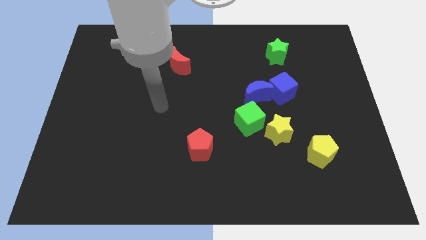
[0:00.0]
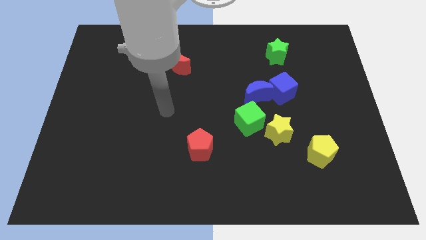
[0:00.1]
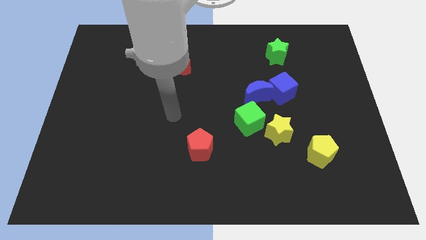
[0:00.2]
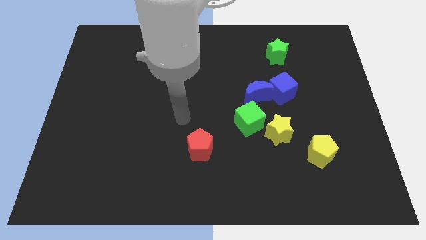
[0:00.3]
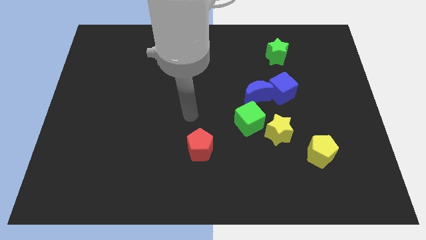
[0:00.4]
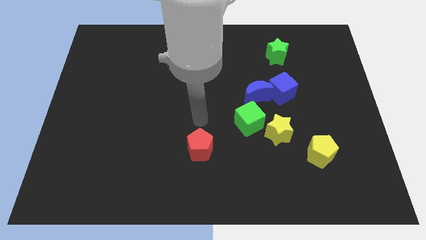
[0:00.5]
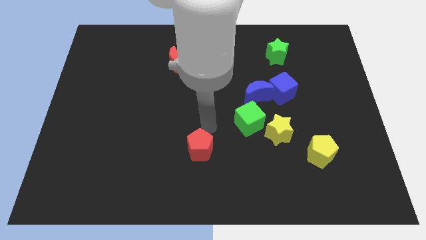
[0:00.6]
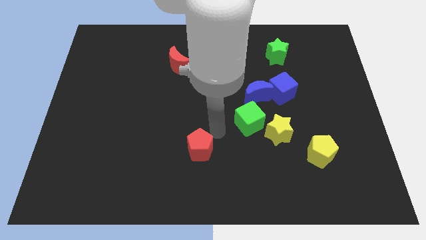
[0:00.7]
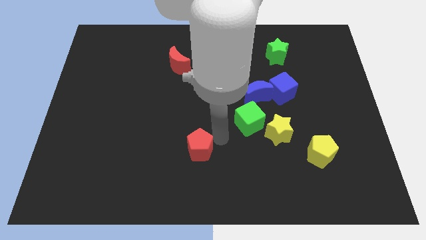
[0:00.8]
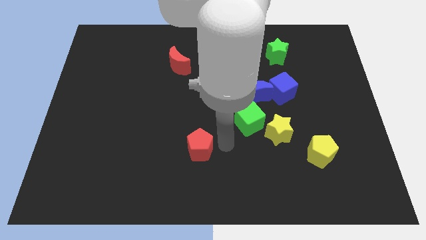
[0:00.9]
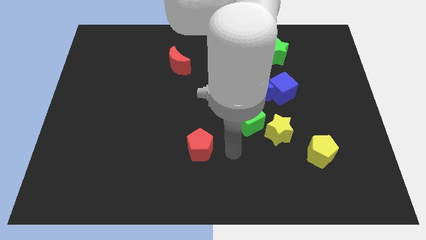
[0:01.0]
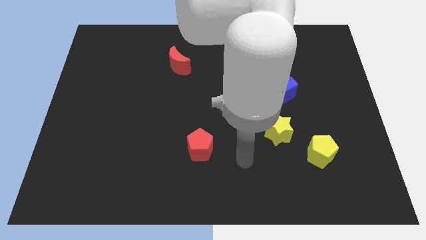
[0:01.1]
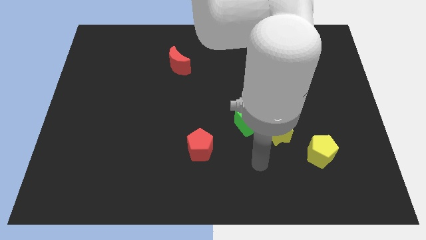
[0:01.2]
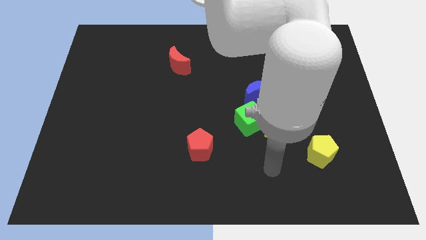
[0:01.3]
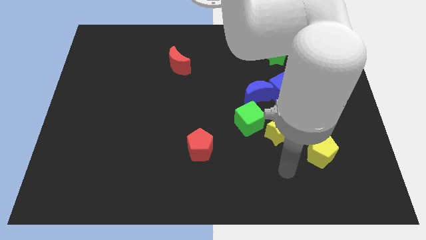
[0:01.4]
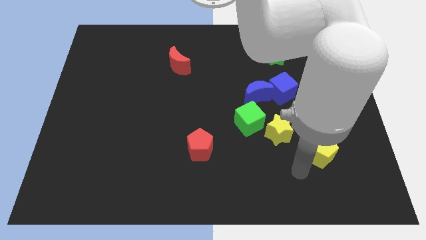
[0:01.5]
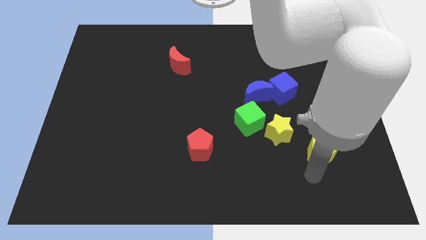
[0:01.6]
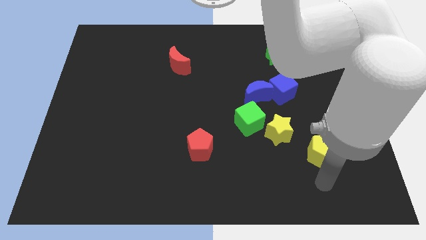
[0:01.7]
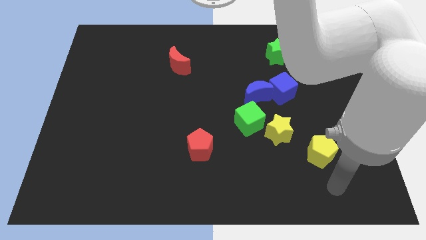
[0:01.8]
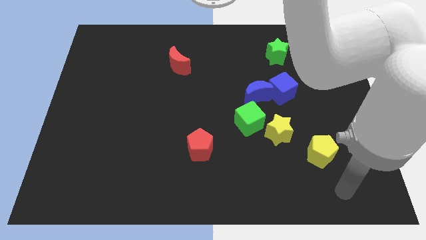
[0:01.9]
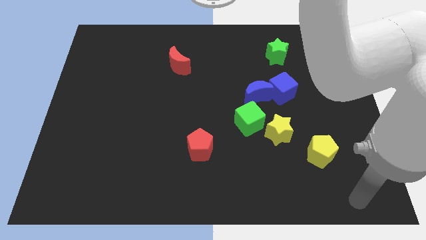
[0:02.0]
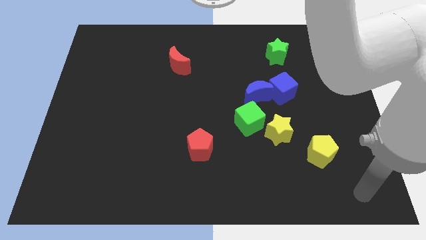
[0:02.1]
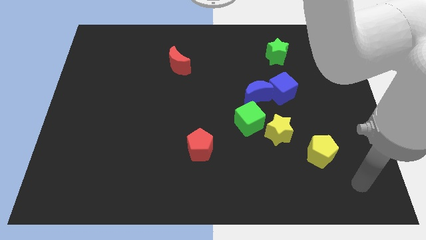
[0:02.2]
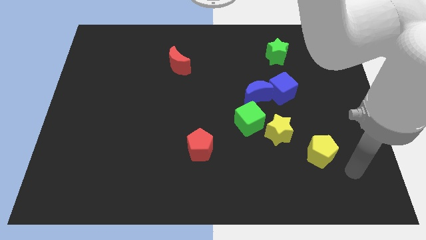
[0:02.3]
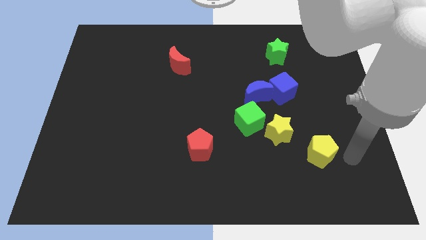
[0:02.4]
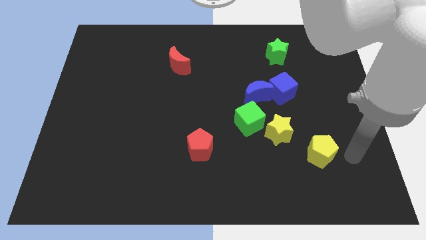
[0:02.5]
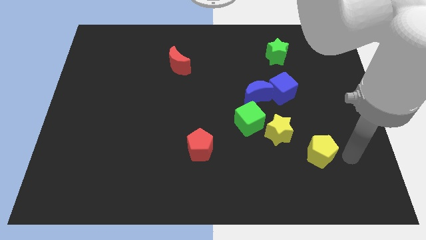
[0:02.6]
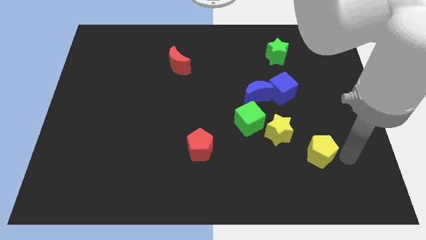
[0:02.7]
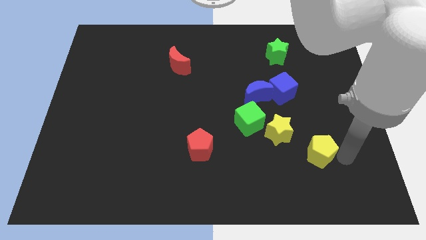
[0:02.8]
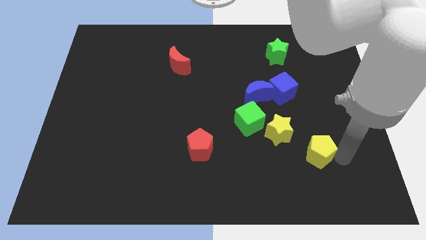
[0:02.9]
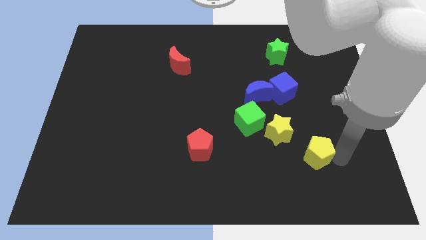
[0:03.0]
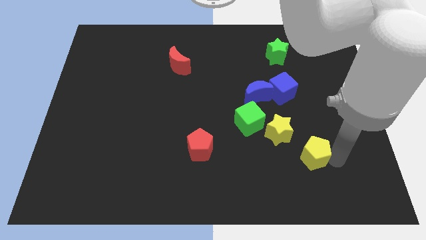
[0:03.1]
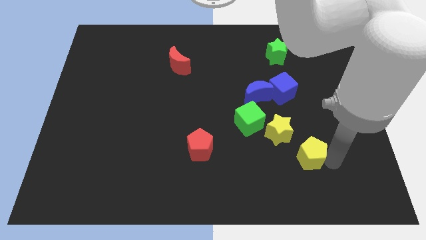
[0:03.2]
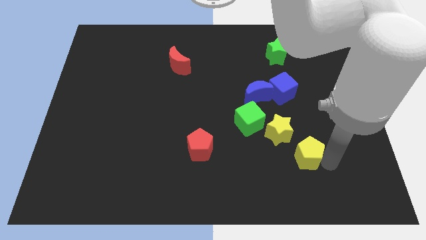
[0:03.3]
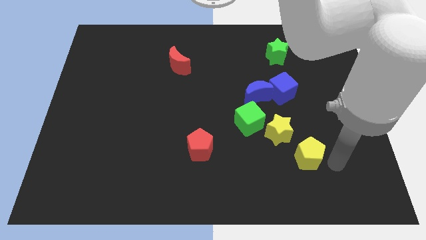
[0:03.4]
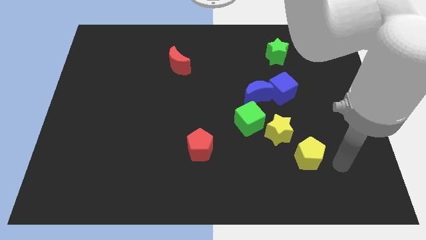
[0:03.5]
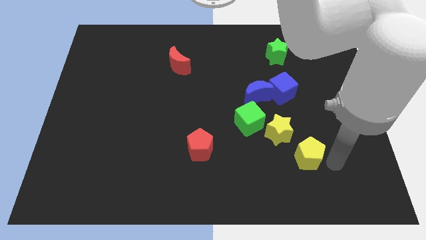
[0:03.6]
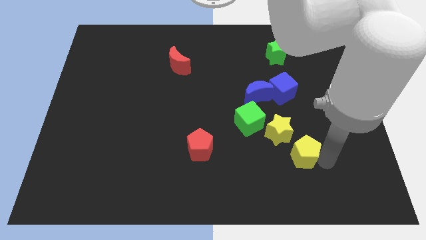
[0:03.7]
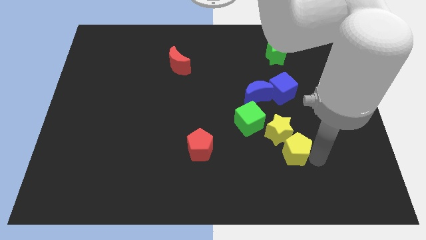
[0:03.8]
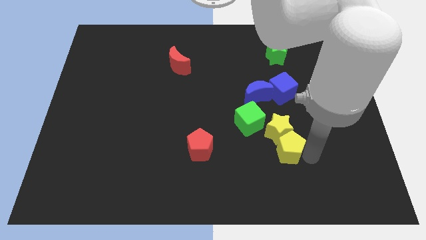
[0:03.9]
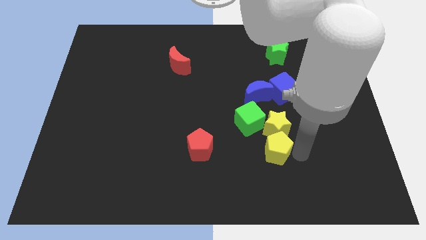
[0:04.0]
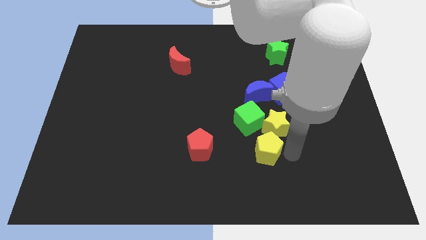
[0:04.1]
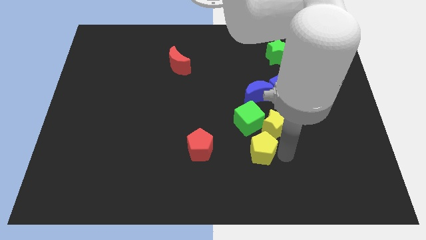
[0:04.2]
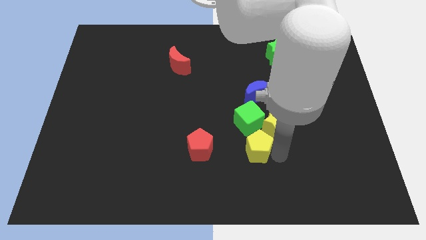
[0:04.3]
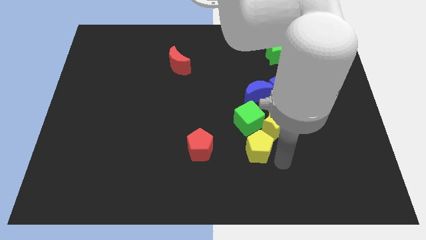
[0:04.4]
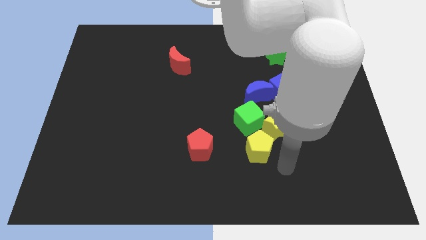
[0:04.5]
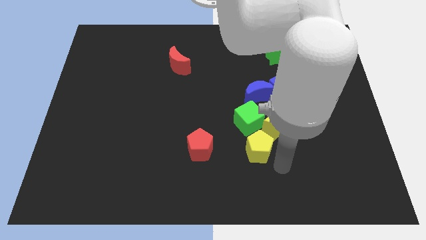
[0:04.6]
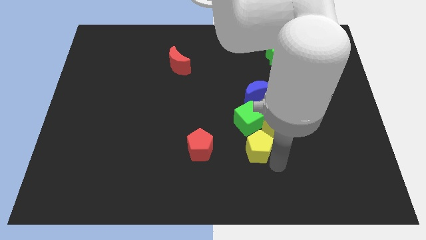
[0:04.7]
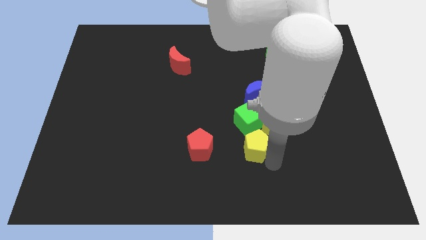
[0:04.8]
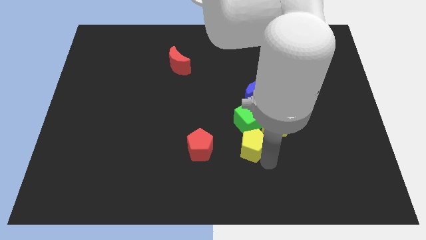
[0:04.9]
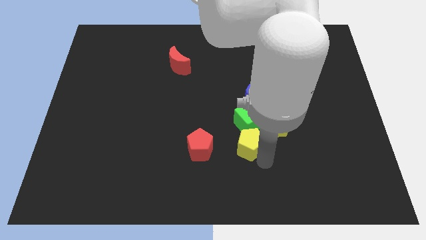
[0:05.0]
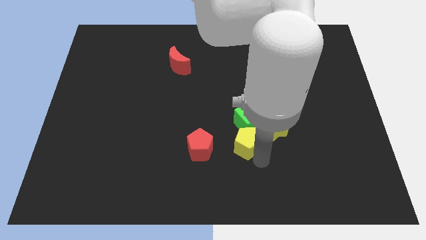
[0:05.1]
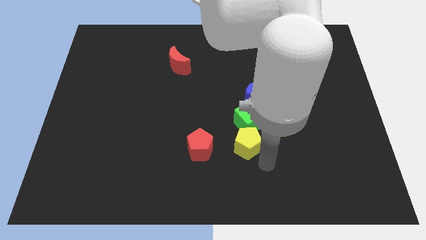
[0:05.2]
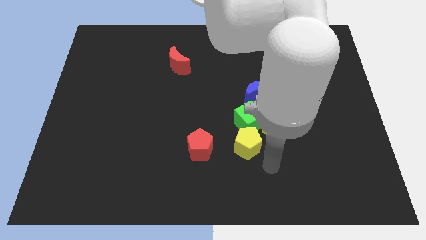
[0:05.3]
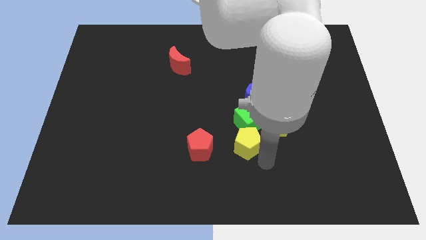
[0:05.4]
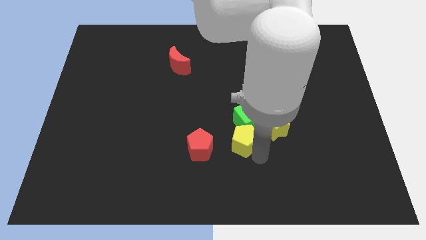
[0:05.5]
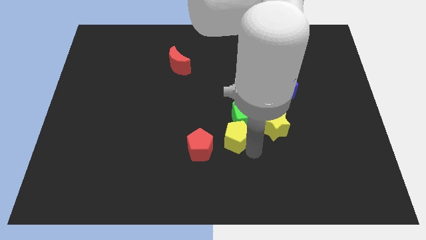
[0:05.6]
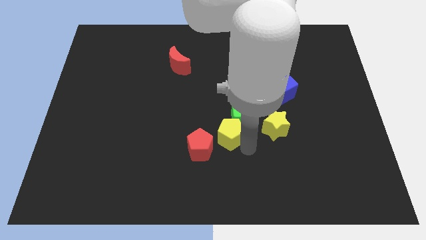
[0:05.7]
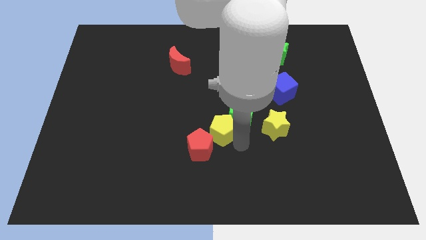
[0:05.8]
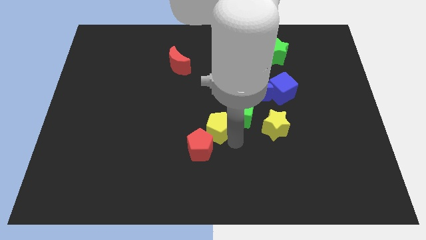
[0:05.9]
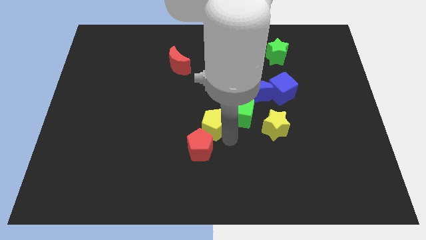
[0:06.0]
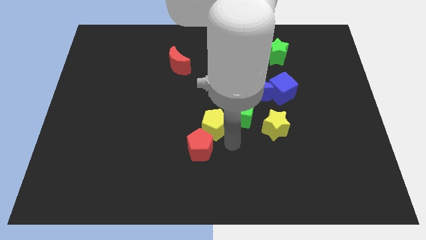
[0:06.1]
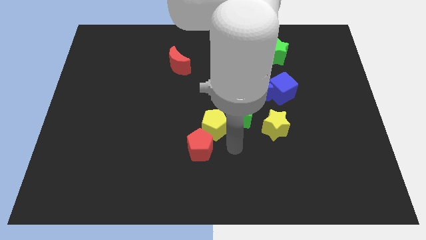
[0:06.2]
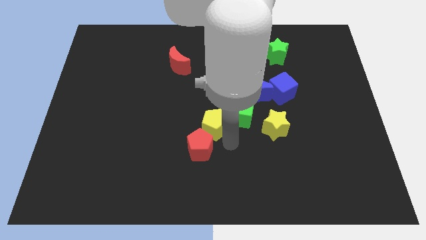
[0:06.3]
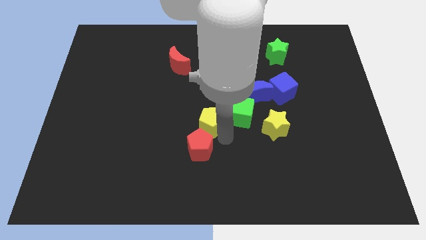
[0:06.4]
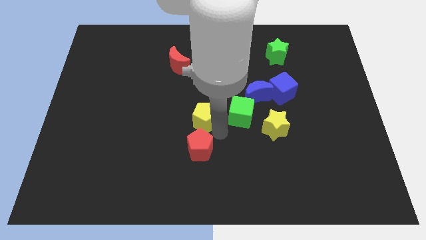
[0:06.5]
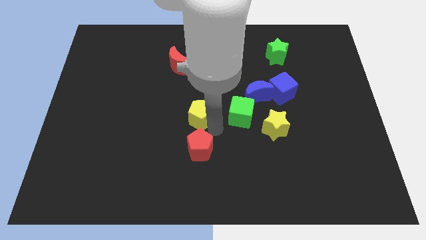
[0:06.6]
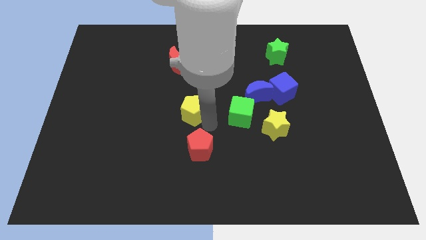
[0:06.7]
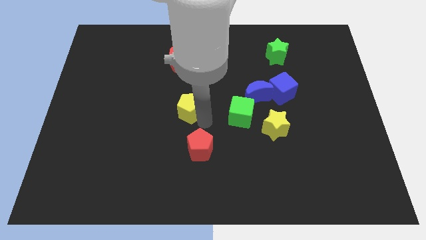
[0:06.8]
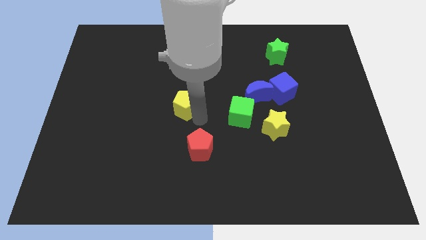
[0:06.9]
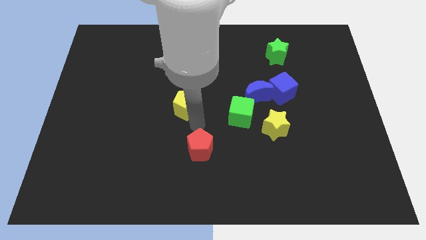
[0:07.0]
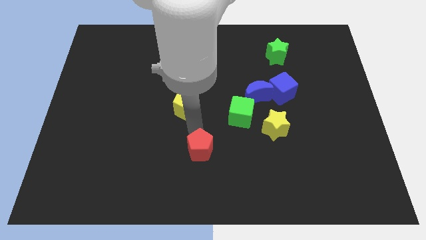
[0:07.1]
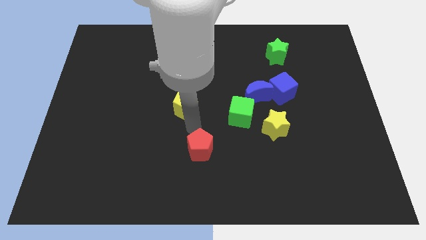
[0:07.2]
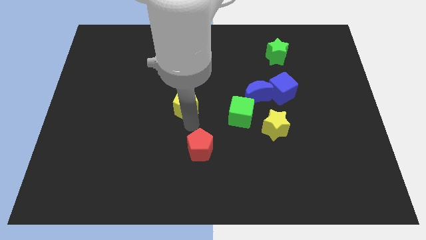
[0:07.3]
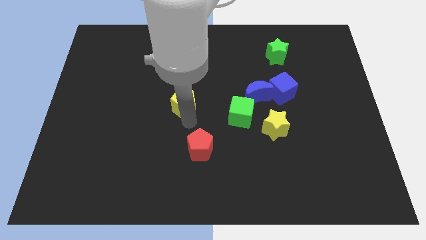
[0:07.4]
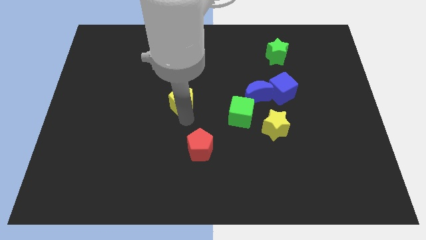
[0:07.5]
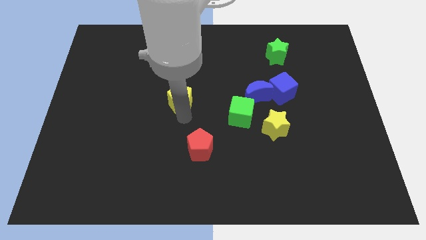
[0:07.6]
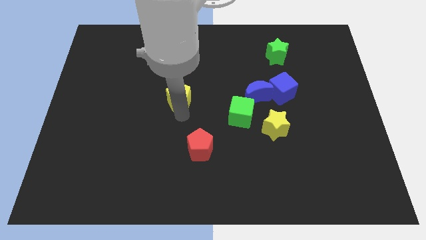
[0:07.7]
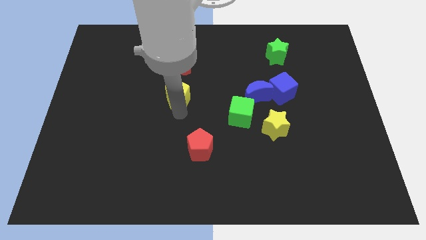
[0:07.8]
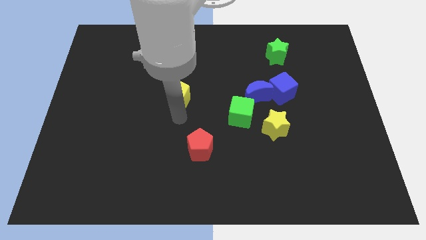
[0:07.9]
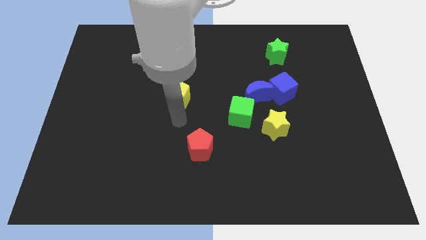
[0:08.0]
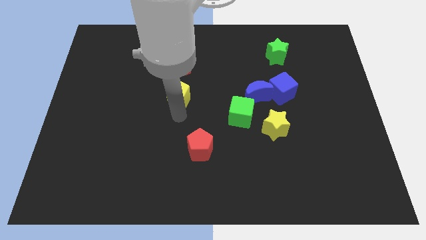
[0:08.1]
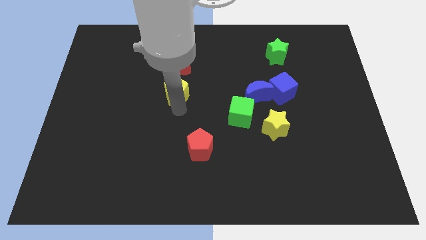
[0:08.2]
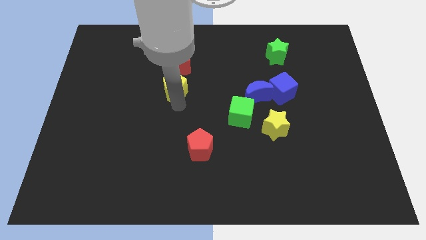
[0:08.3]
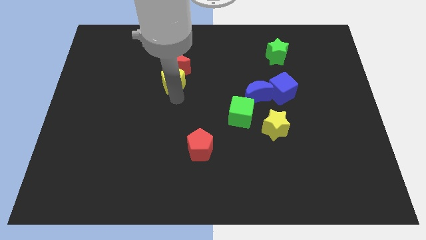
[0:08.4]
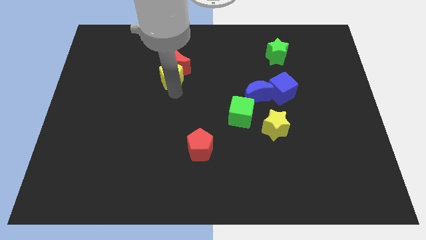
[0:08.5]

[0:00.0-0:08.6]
push the yellow pentagon close to the red moon
